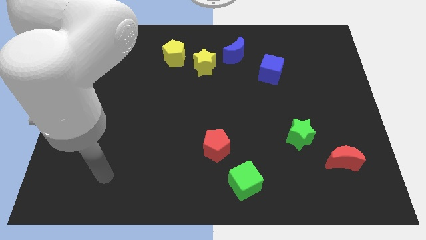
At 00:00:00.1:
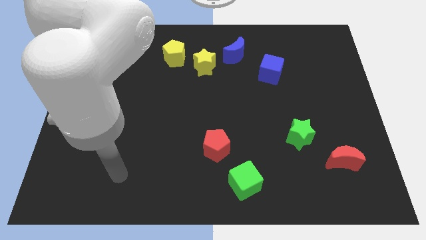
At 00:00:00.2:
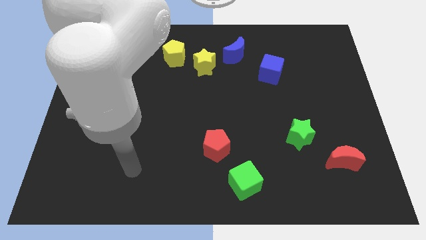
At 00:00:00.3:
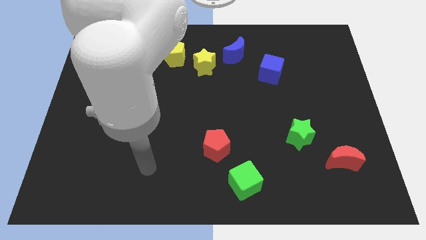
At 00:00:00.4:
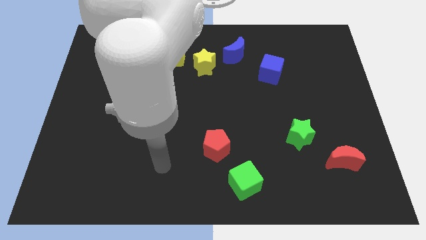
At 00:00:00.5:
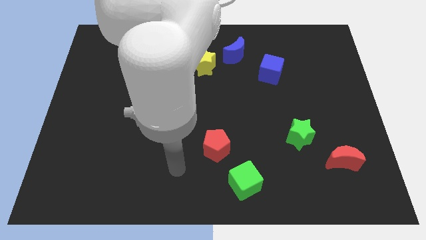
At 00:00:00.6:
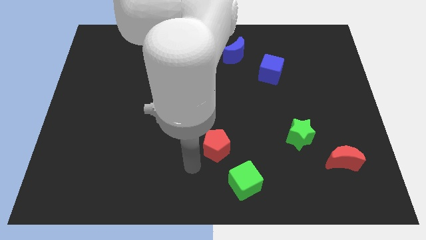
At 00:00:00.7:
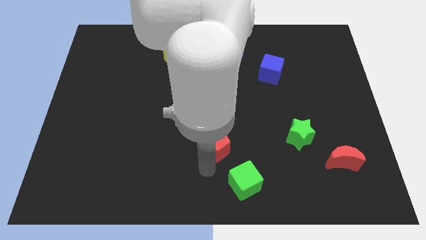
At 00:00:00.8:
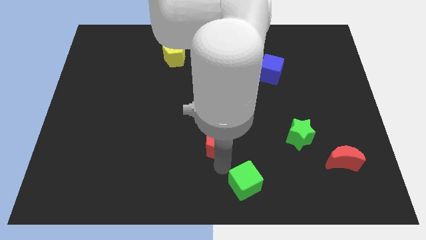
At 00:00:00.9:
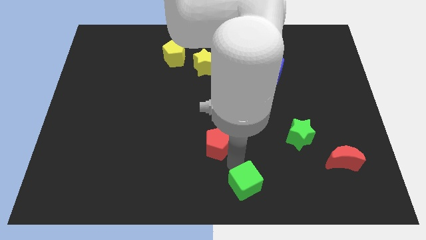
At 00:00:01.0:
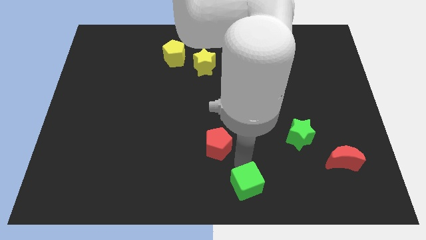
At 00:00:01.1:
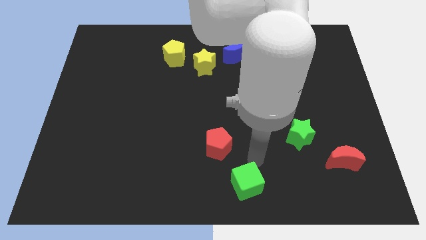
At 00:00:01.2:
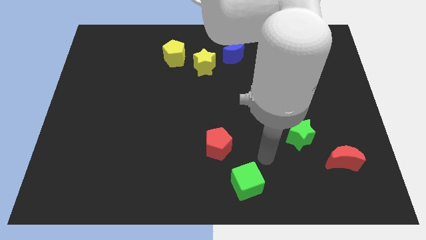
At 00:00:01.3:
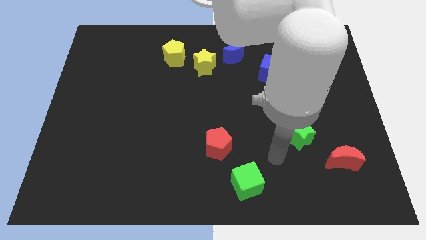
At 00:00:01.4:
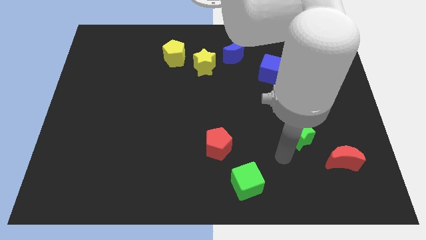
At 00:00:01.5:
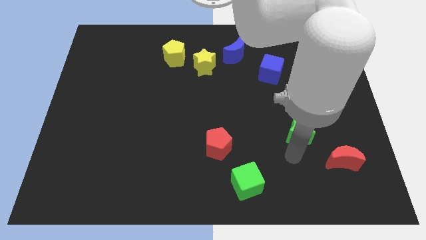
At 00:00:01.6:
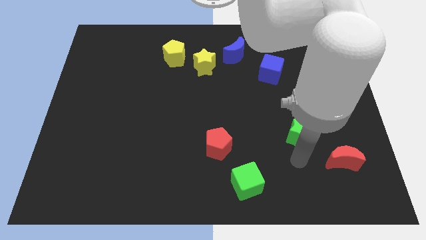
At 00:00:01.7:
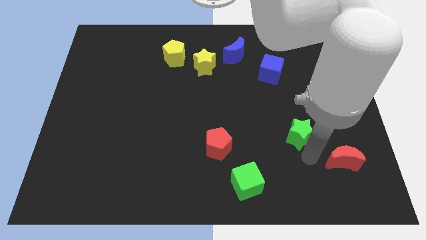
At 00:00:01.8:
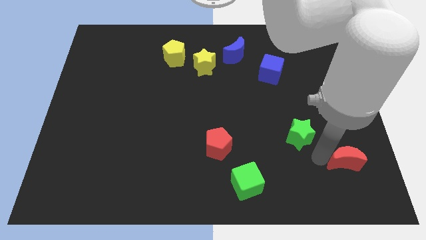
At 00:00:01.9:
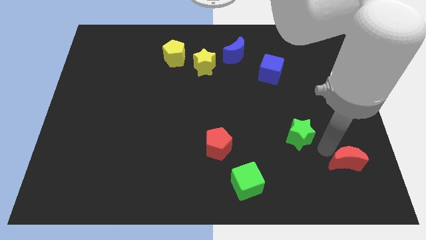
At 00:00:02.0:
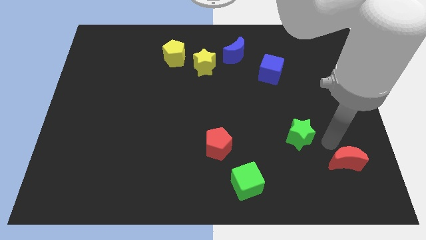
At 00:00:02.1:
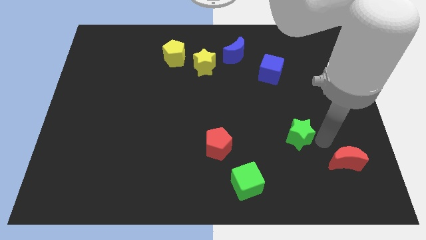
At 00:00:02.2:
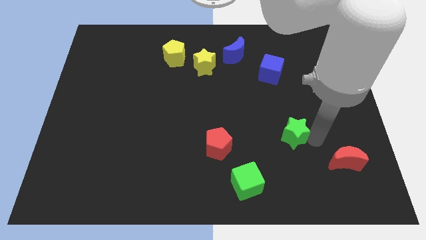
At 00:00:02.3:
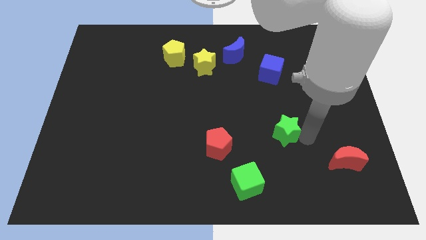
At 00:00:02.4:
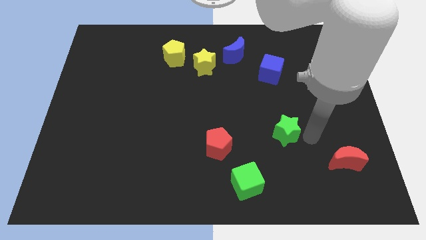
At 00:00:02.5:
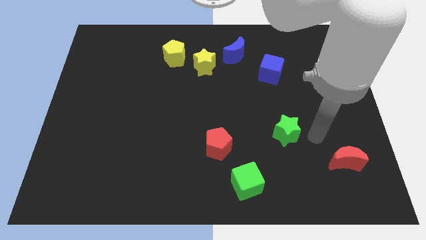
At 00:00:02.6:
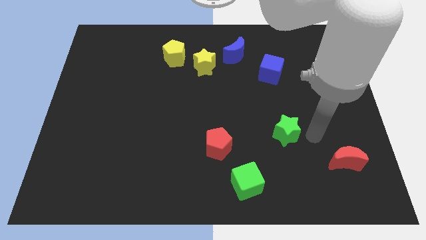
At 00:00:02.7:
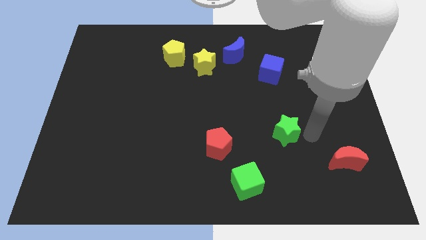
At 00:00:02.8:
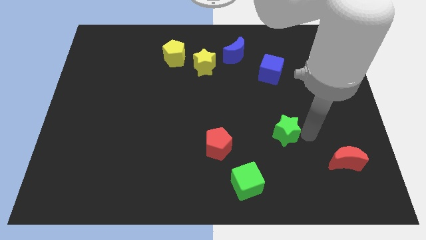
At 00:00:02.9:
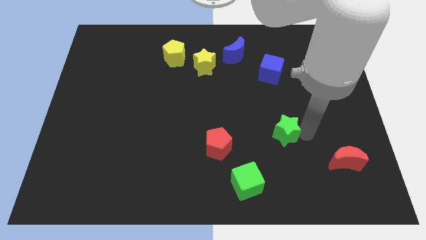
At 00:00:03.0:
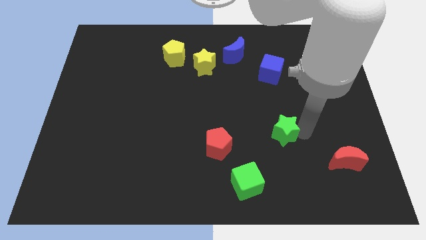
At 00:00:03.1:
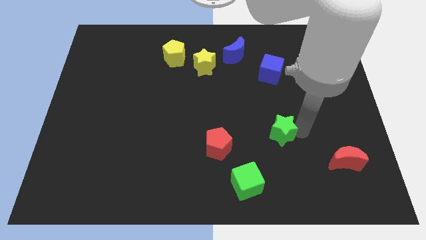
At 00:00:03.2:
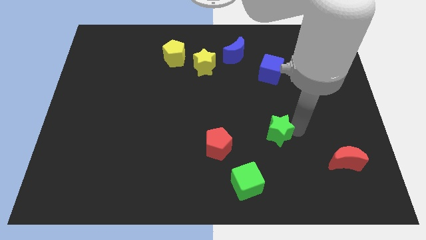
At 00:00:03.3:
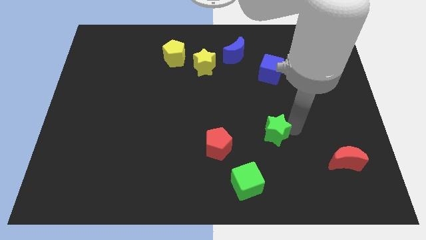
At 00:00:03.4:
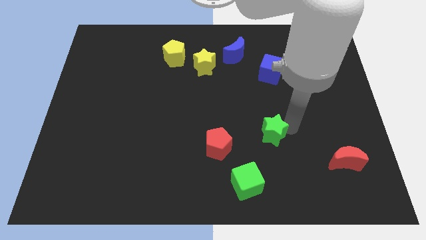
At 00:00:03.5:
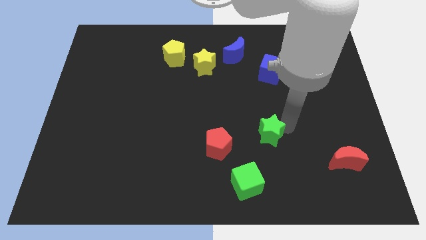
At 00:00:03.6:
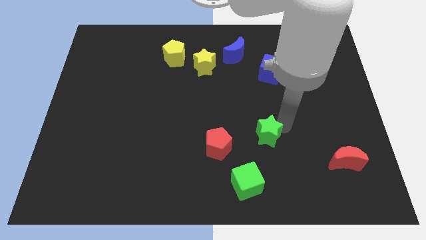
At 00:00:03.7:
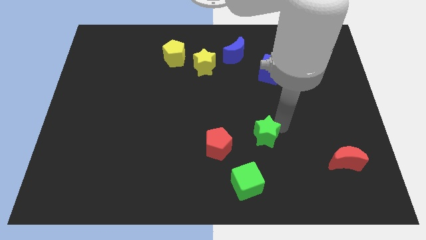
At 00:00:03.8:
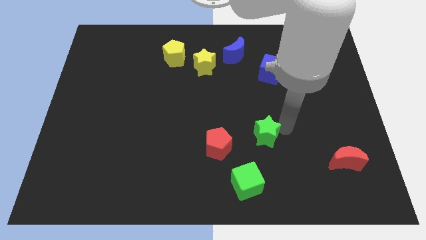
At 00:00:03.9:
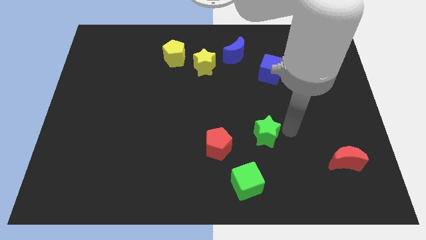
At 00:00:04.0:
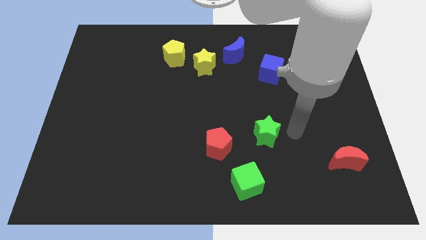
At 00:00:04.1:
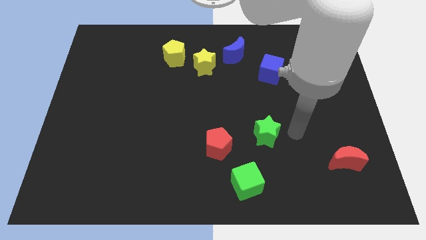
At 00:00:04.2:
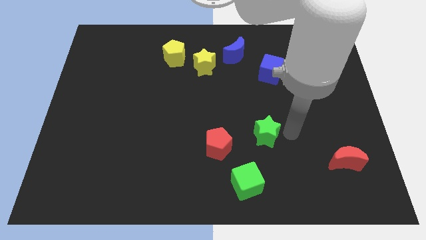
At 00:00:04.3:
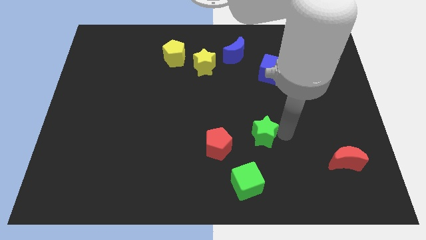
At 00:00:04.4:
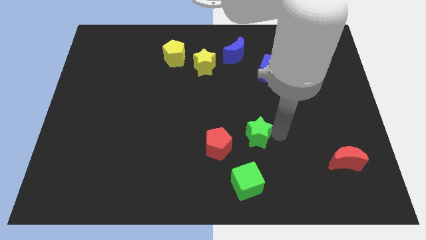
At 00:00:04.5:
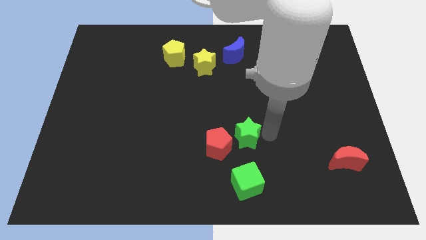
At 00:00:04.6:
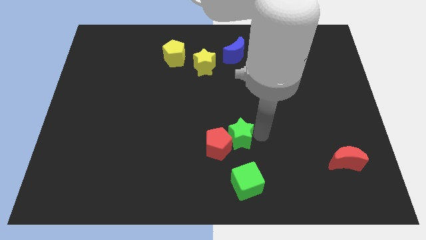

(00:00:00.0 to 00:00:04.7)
slide the green star towards the red pentagon

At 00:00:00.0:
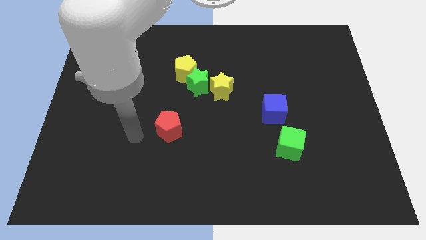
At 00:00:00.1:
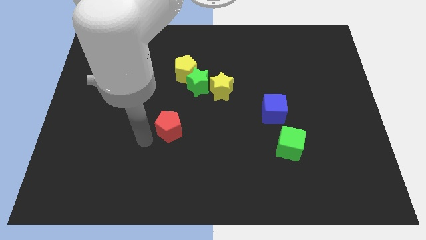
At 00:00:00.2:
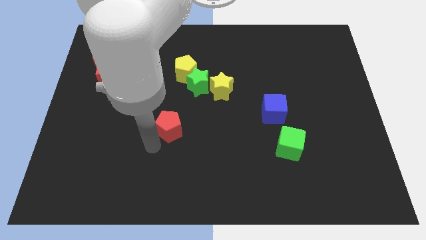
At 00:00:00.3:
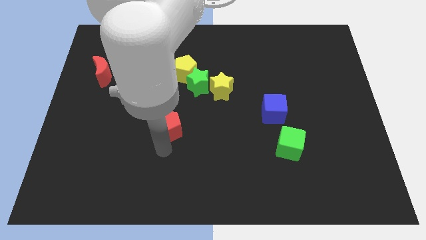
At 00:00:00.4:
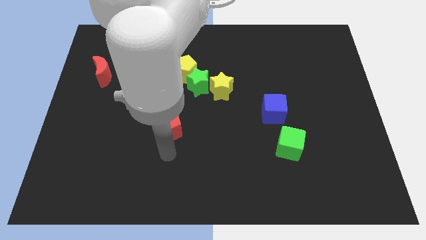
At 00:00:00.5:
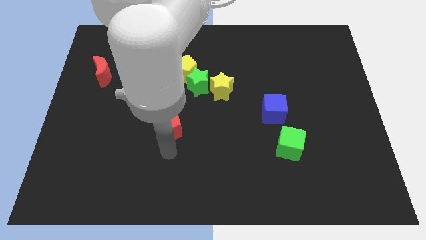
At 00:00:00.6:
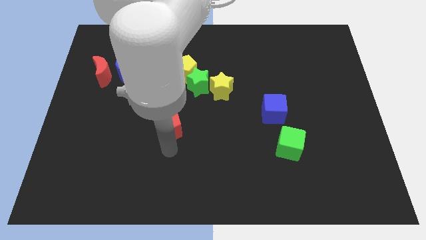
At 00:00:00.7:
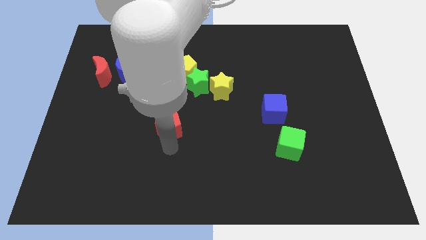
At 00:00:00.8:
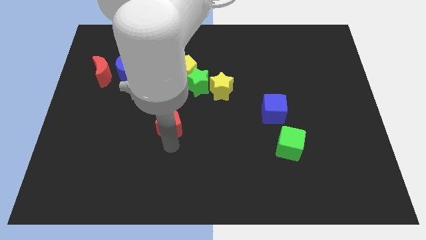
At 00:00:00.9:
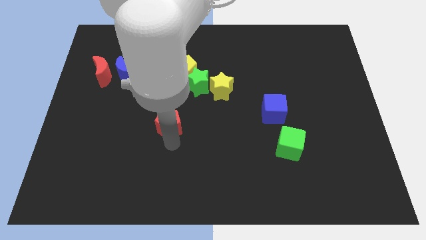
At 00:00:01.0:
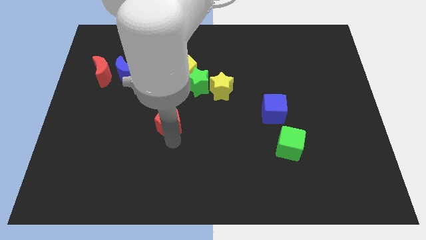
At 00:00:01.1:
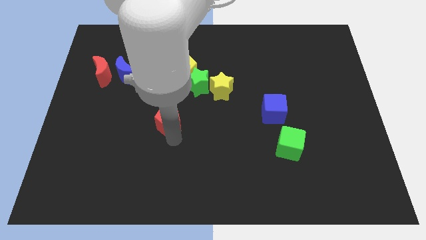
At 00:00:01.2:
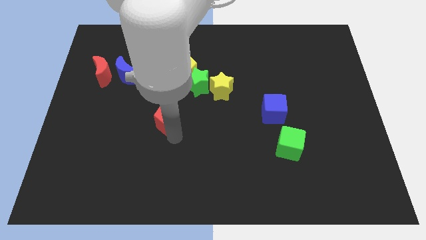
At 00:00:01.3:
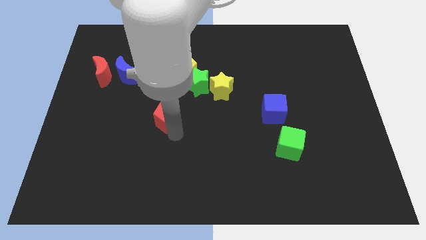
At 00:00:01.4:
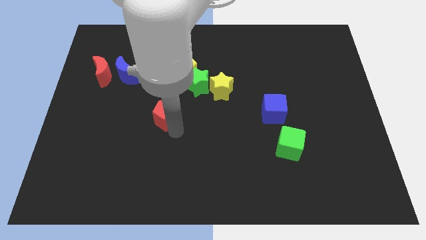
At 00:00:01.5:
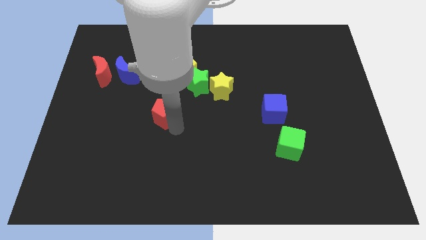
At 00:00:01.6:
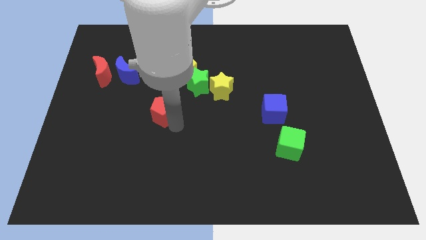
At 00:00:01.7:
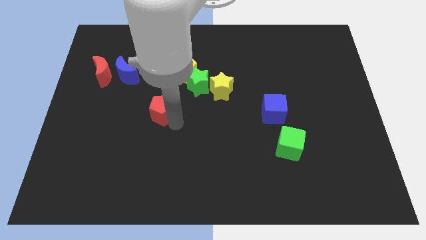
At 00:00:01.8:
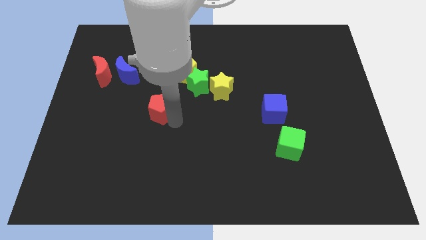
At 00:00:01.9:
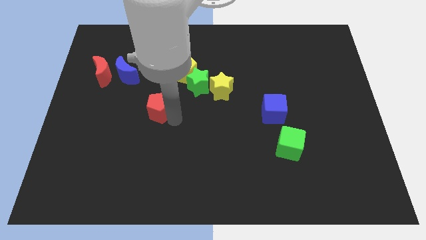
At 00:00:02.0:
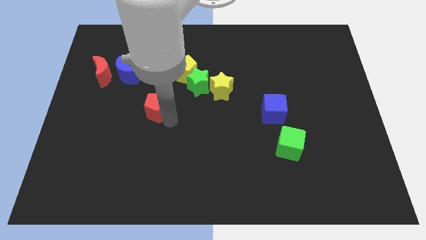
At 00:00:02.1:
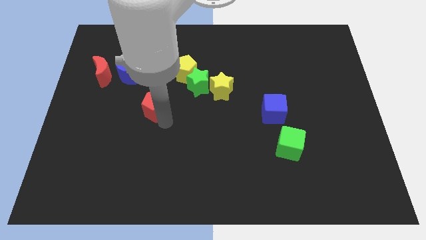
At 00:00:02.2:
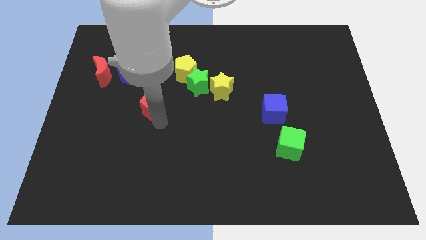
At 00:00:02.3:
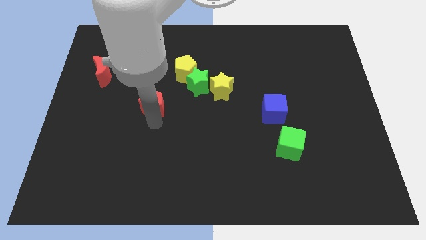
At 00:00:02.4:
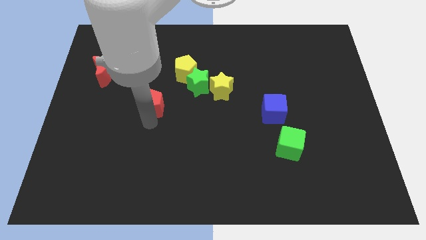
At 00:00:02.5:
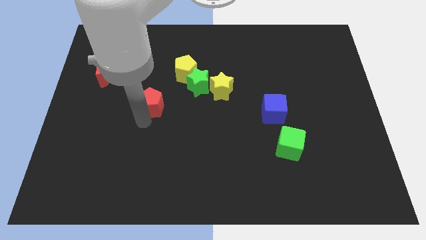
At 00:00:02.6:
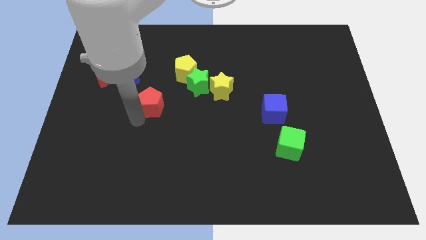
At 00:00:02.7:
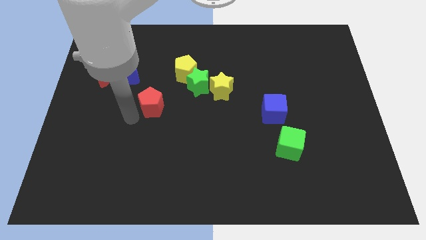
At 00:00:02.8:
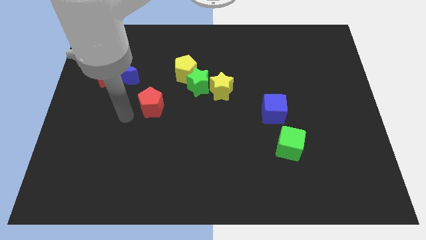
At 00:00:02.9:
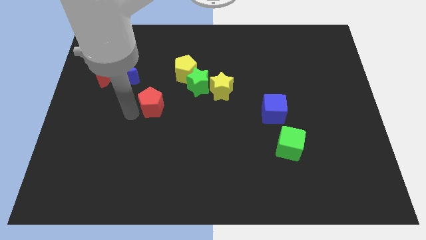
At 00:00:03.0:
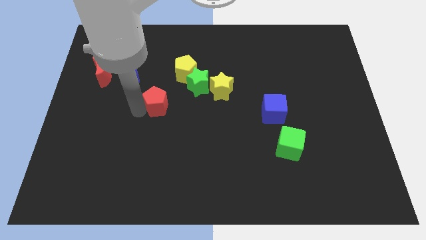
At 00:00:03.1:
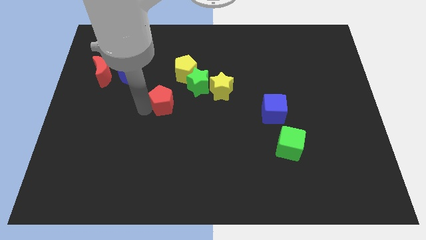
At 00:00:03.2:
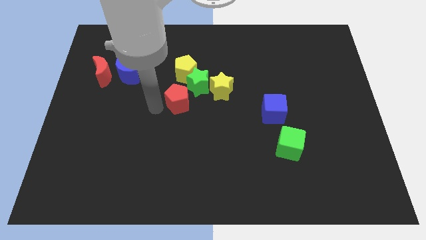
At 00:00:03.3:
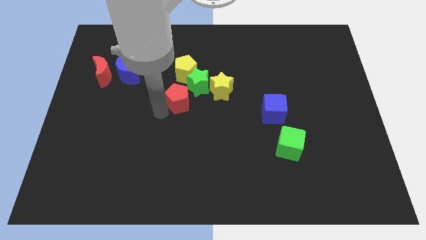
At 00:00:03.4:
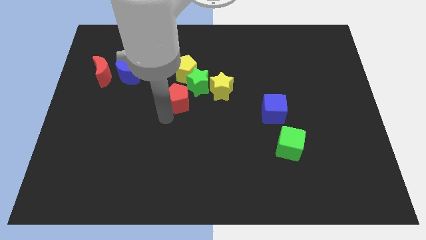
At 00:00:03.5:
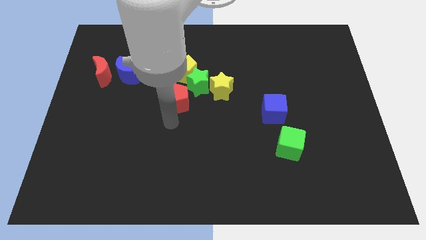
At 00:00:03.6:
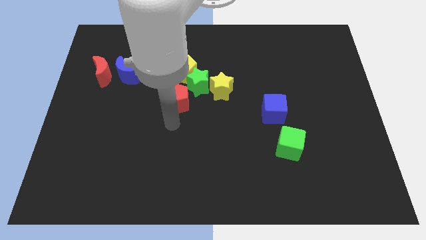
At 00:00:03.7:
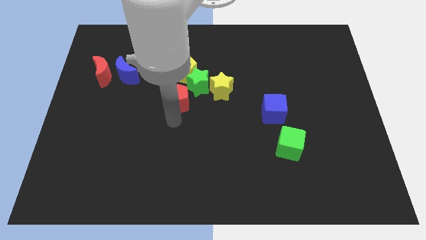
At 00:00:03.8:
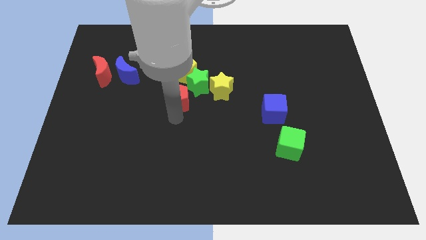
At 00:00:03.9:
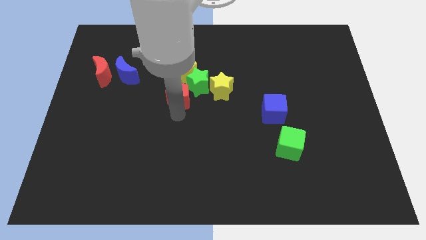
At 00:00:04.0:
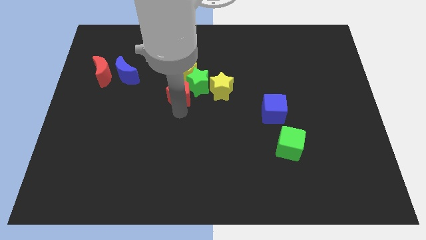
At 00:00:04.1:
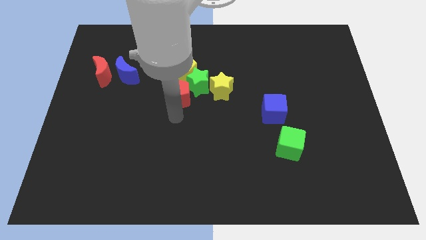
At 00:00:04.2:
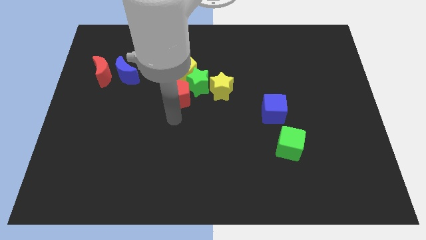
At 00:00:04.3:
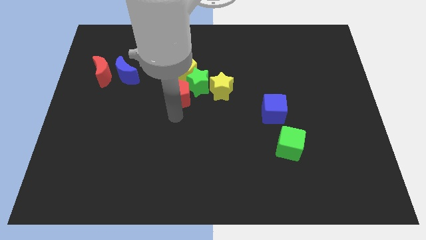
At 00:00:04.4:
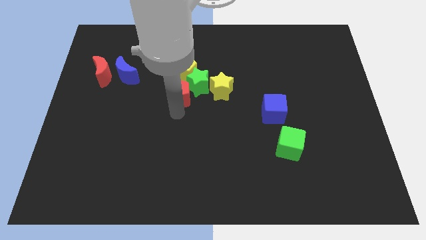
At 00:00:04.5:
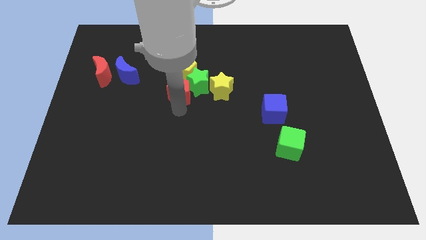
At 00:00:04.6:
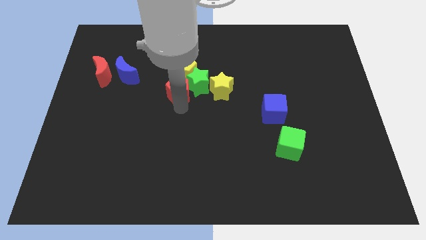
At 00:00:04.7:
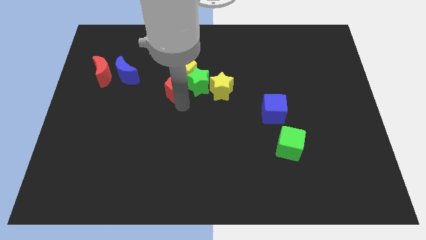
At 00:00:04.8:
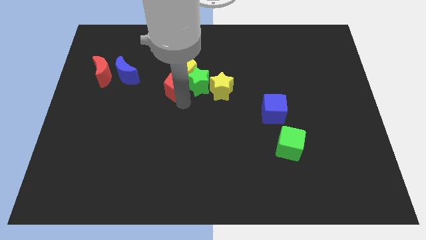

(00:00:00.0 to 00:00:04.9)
put the red pentagon next to the yellow pentagon
